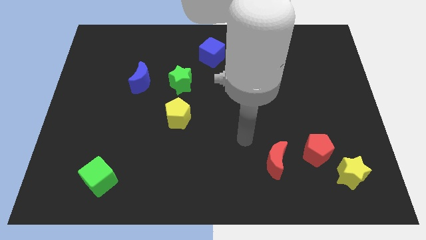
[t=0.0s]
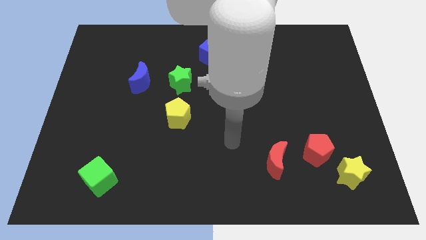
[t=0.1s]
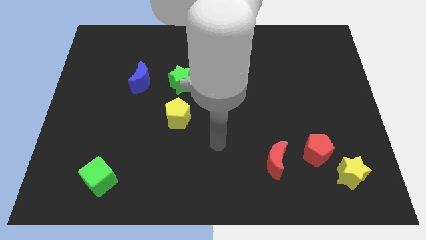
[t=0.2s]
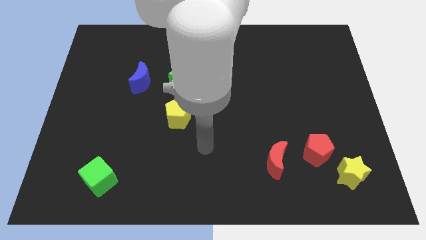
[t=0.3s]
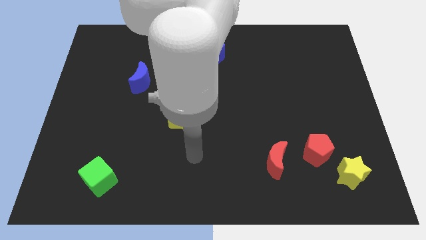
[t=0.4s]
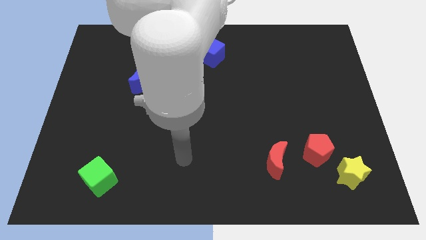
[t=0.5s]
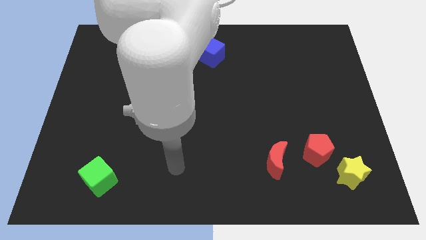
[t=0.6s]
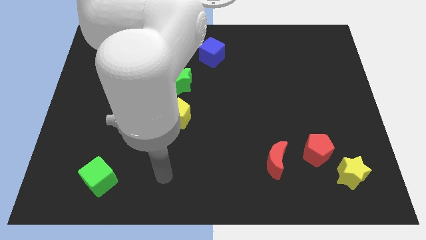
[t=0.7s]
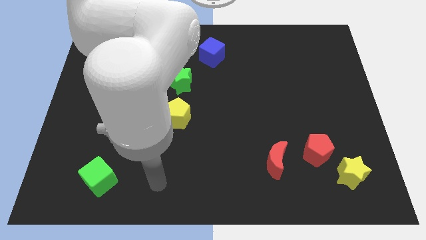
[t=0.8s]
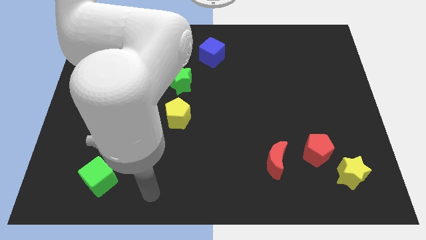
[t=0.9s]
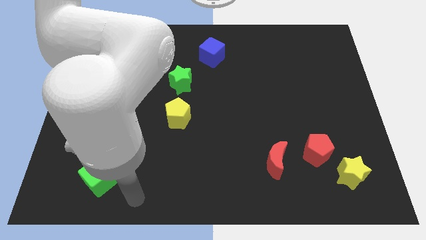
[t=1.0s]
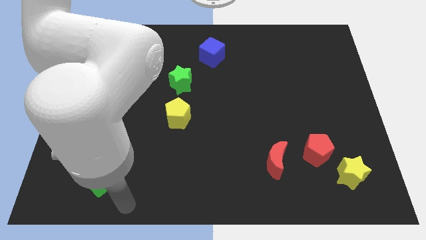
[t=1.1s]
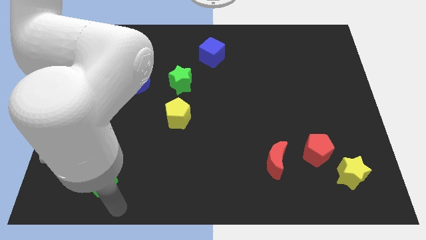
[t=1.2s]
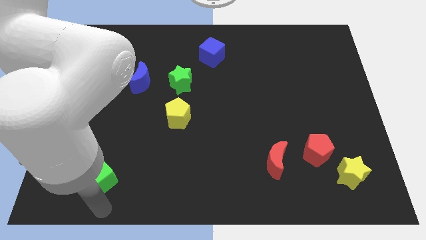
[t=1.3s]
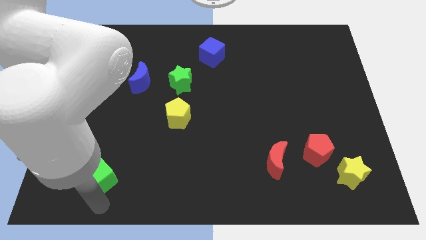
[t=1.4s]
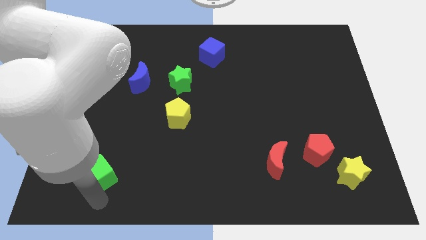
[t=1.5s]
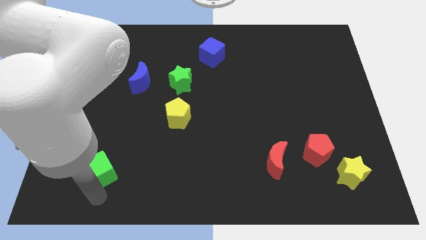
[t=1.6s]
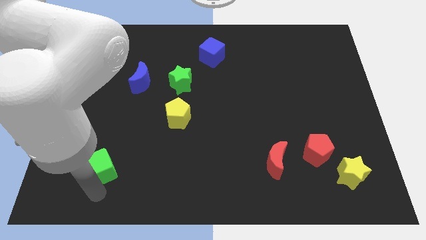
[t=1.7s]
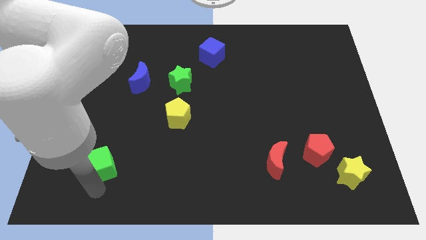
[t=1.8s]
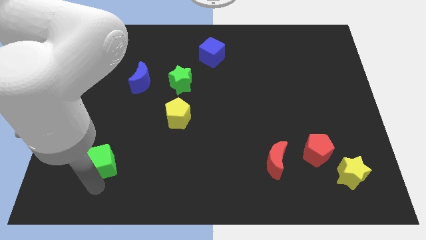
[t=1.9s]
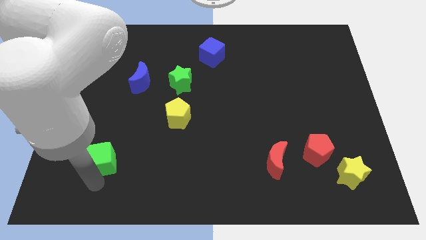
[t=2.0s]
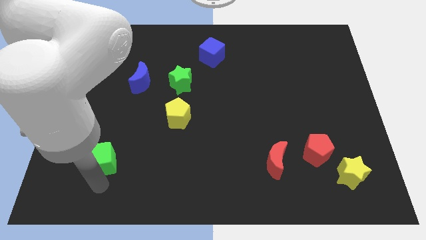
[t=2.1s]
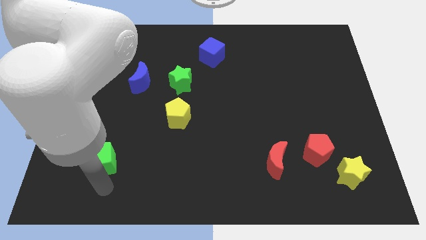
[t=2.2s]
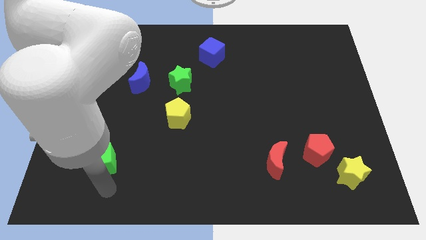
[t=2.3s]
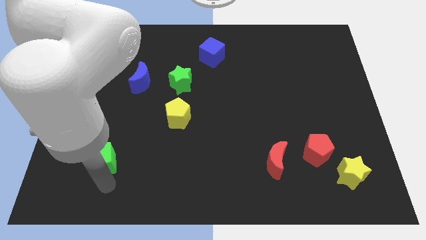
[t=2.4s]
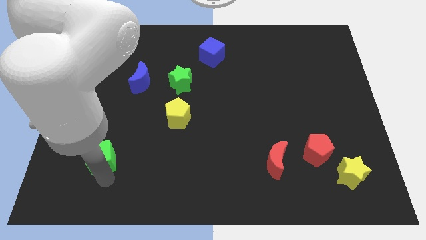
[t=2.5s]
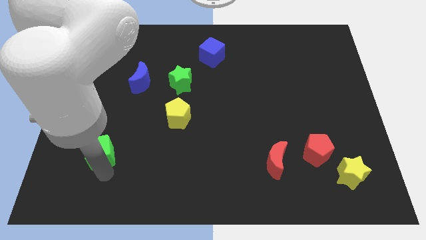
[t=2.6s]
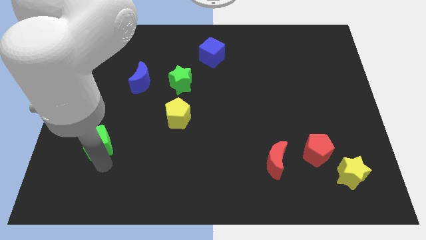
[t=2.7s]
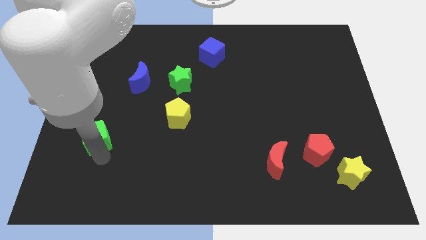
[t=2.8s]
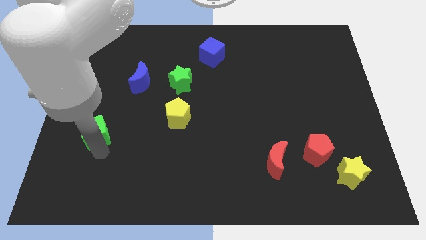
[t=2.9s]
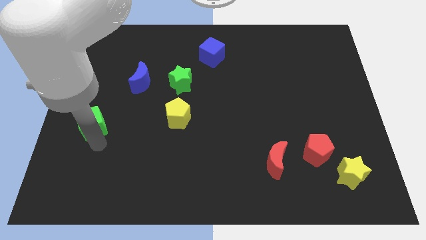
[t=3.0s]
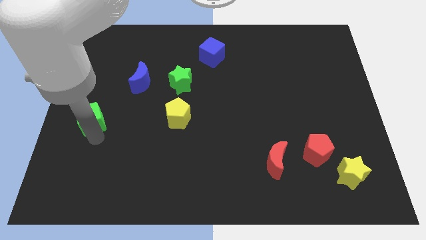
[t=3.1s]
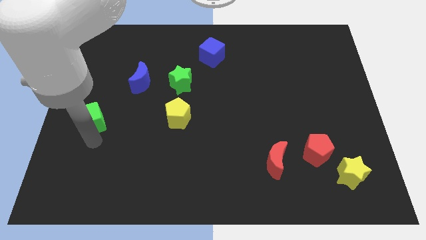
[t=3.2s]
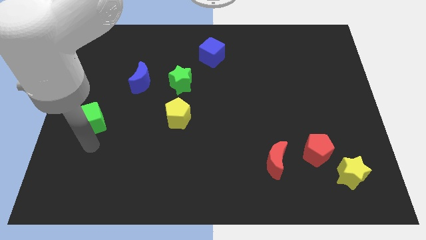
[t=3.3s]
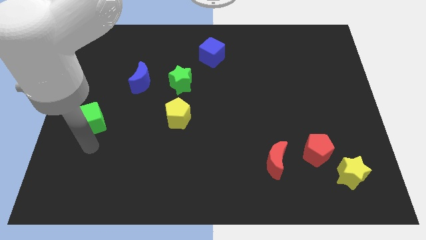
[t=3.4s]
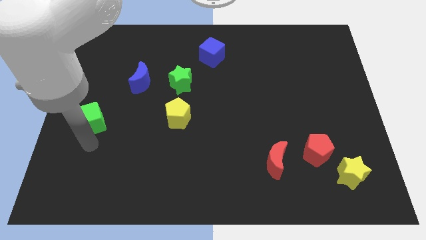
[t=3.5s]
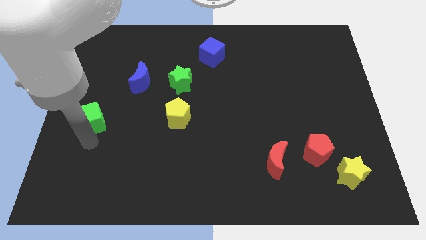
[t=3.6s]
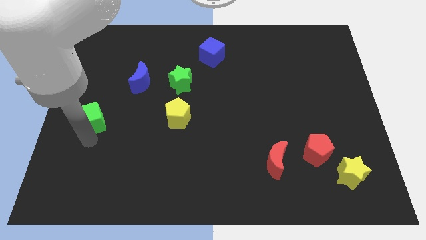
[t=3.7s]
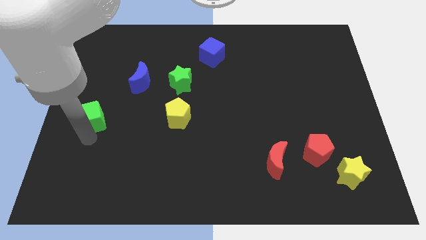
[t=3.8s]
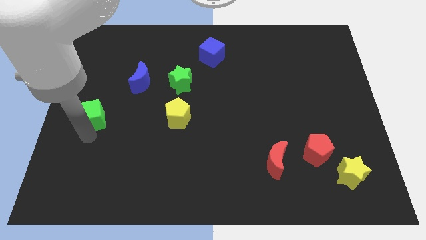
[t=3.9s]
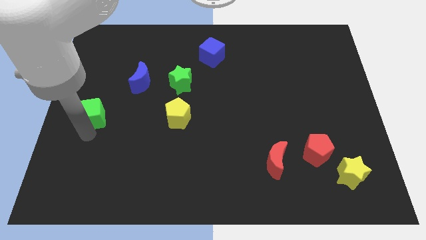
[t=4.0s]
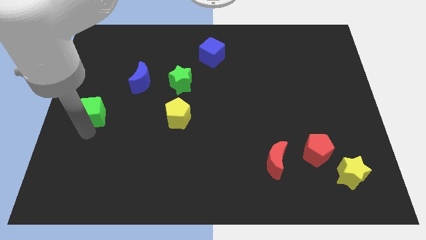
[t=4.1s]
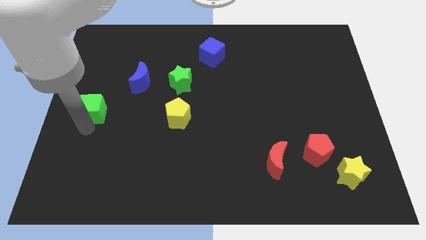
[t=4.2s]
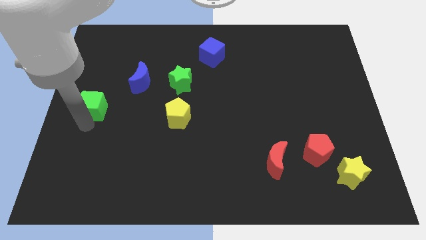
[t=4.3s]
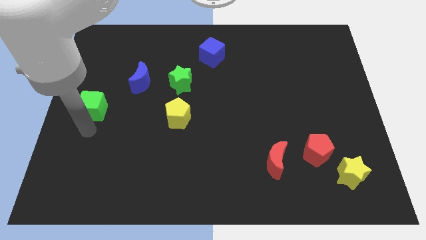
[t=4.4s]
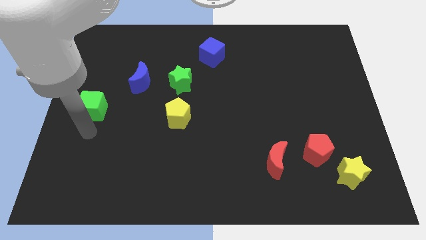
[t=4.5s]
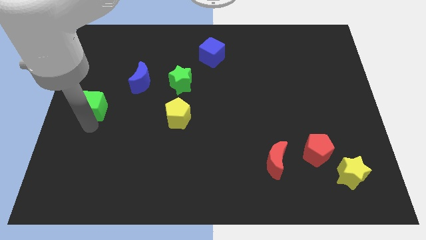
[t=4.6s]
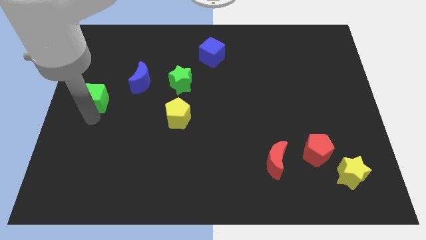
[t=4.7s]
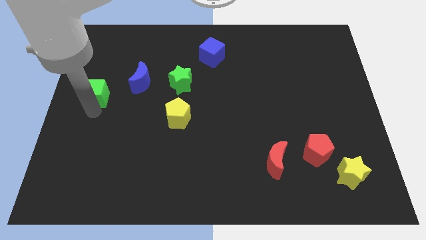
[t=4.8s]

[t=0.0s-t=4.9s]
slide the green cube to the left side of the blue moon

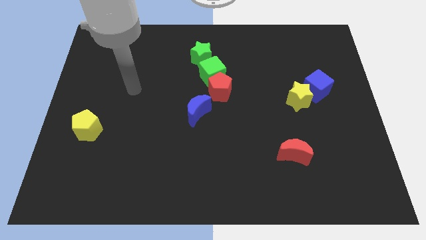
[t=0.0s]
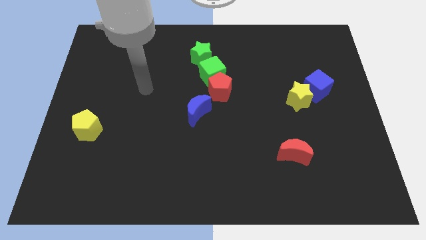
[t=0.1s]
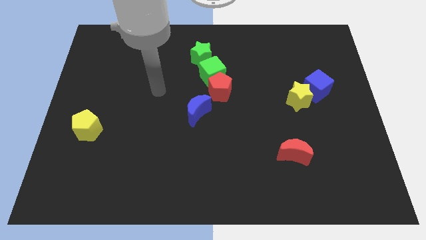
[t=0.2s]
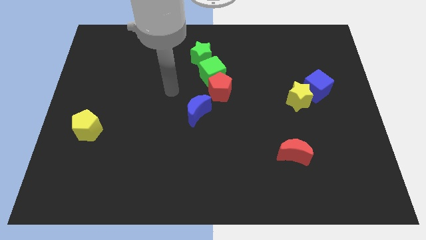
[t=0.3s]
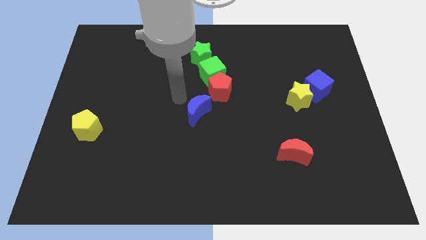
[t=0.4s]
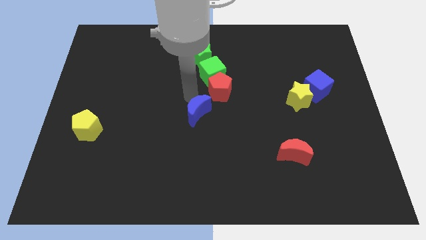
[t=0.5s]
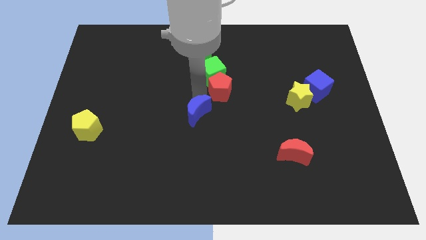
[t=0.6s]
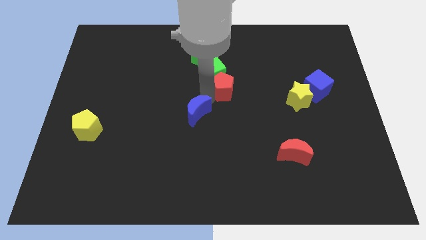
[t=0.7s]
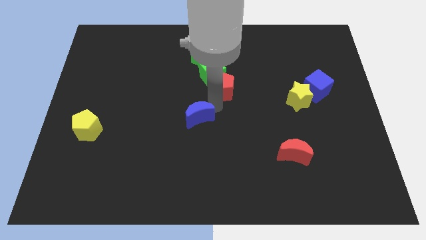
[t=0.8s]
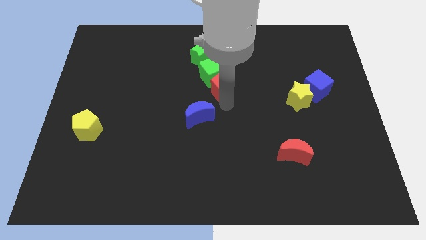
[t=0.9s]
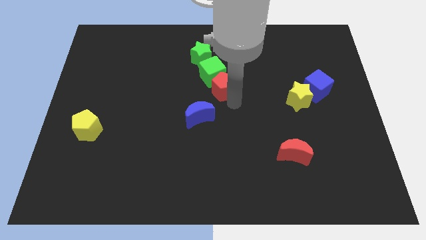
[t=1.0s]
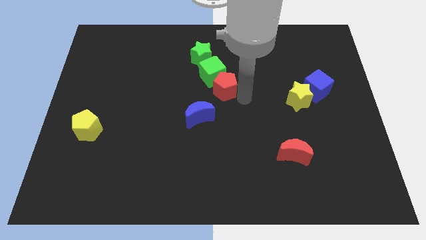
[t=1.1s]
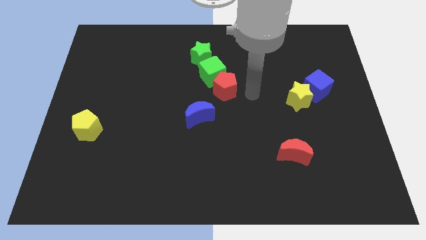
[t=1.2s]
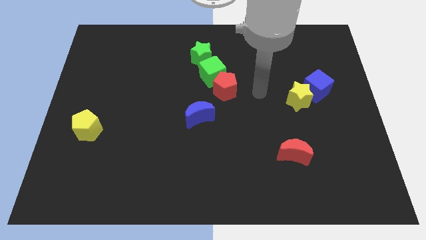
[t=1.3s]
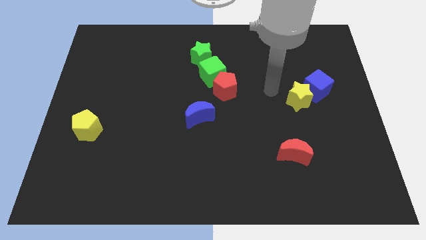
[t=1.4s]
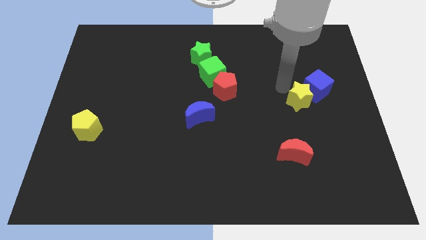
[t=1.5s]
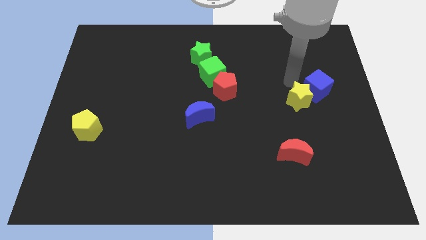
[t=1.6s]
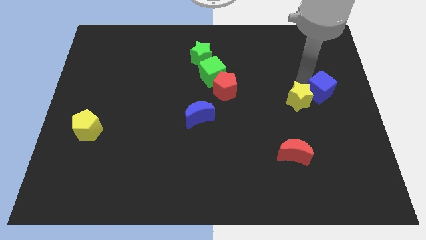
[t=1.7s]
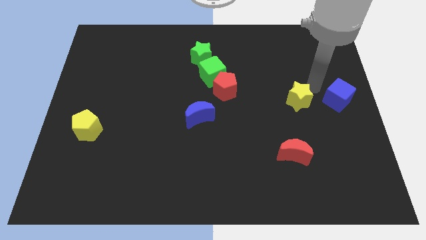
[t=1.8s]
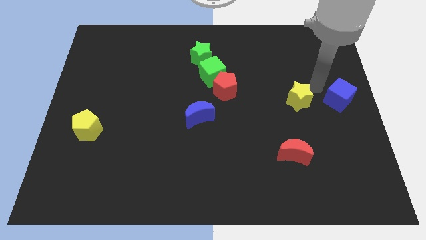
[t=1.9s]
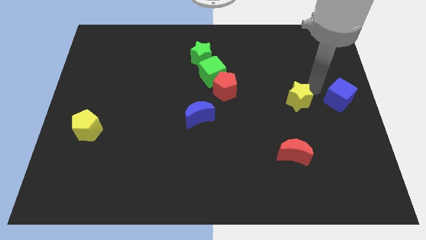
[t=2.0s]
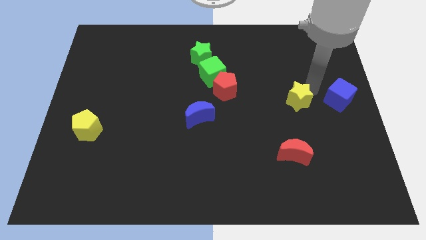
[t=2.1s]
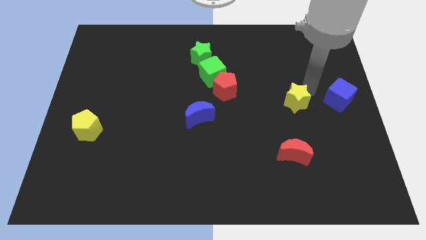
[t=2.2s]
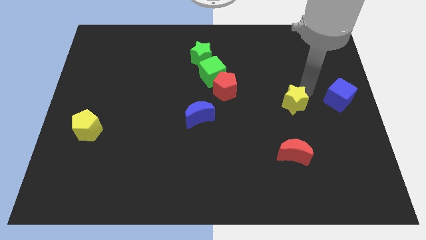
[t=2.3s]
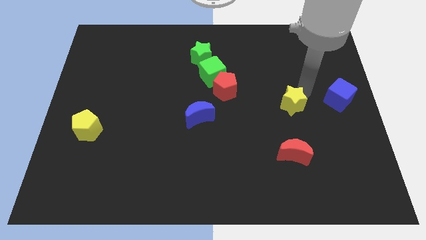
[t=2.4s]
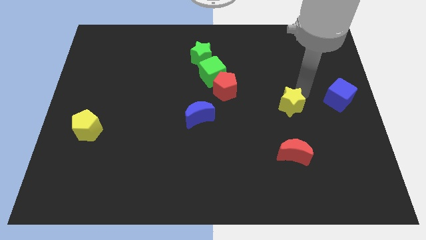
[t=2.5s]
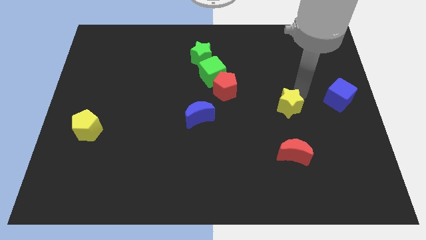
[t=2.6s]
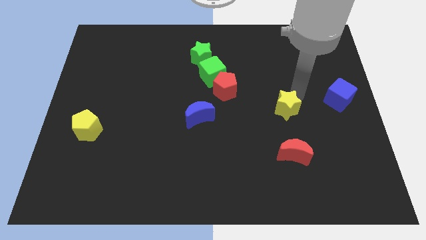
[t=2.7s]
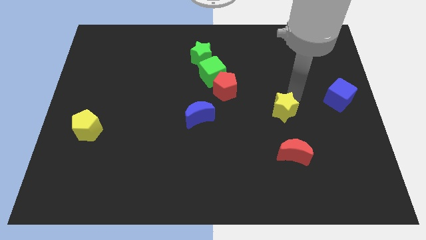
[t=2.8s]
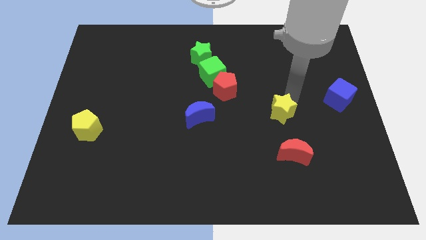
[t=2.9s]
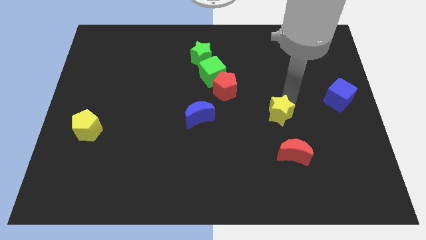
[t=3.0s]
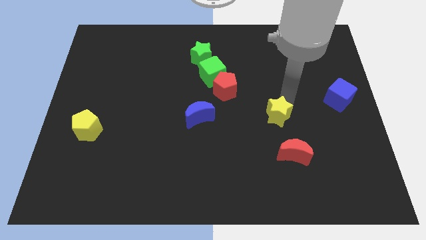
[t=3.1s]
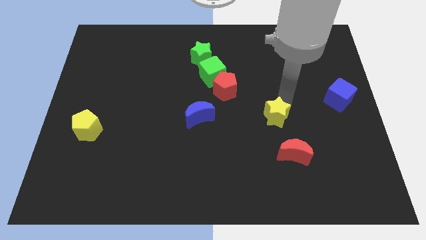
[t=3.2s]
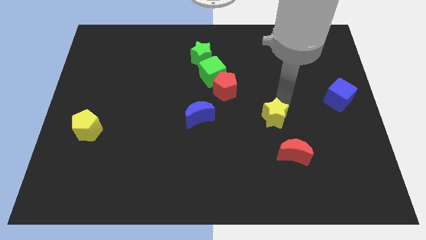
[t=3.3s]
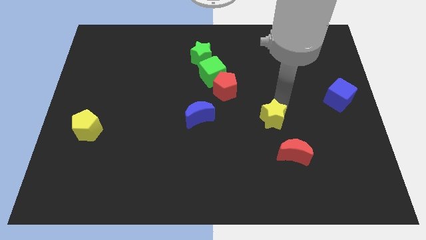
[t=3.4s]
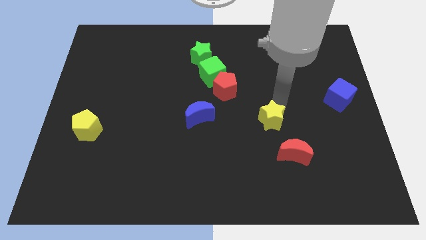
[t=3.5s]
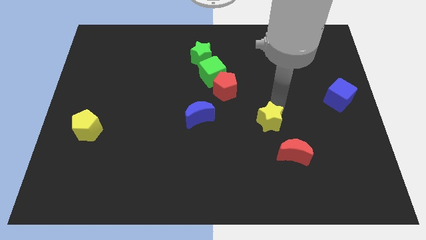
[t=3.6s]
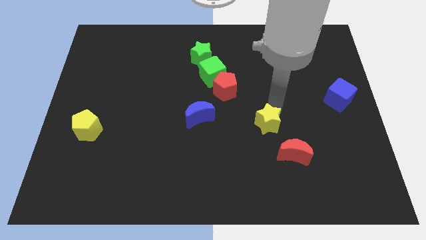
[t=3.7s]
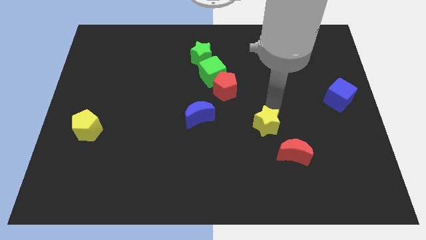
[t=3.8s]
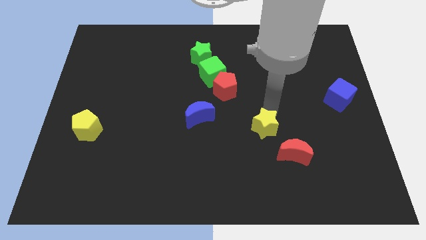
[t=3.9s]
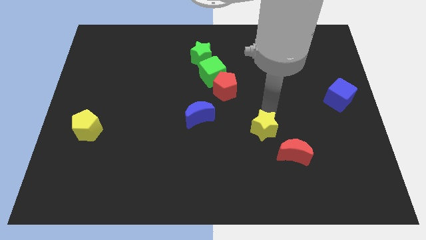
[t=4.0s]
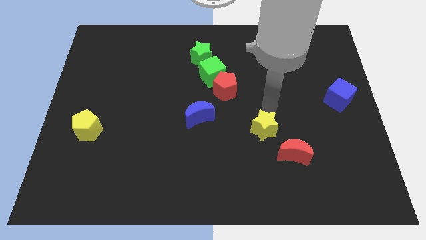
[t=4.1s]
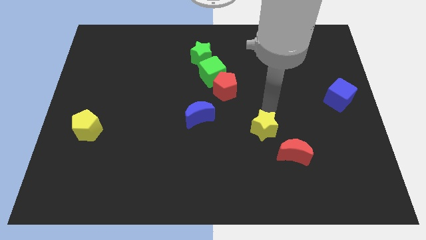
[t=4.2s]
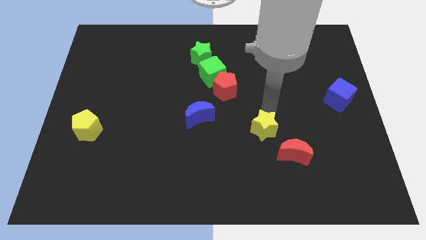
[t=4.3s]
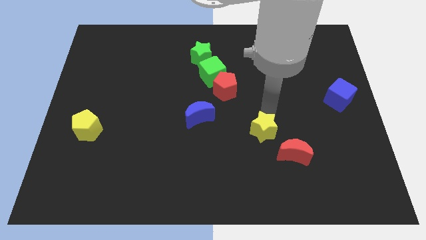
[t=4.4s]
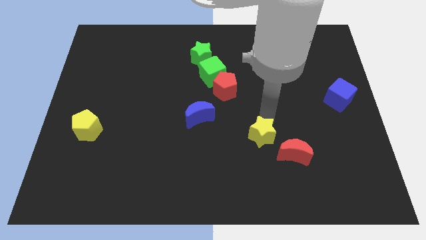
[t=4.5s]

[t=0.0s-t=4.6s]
push the yellow star just left of the red moon
